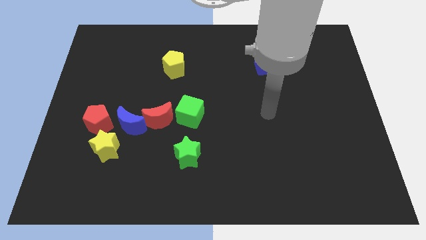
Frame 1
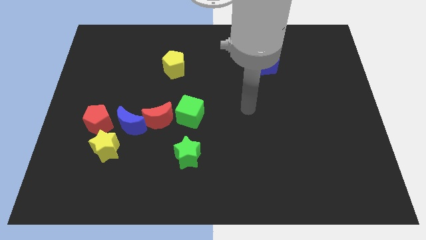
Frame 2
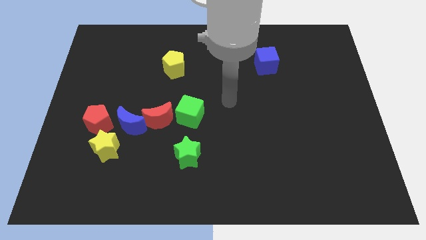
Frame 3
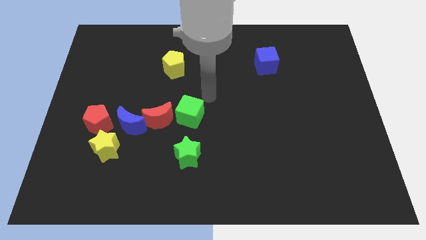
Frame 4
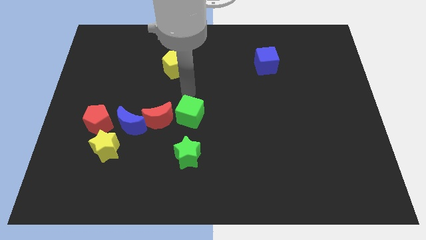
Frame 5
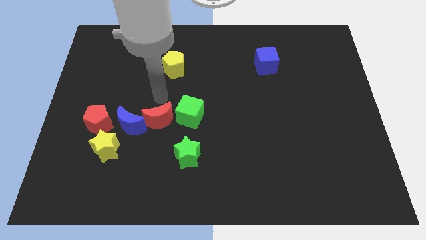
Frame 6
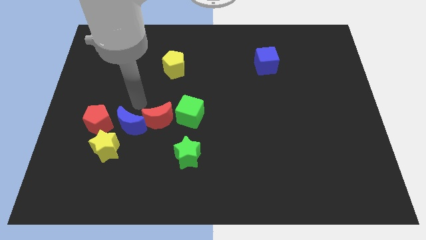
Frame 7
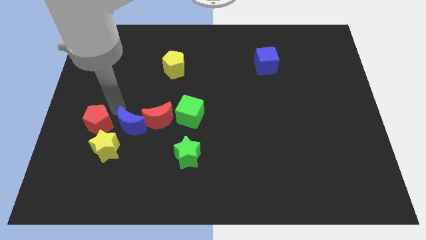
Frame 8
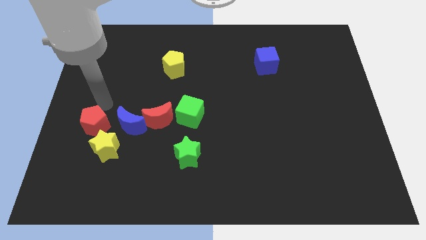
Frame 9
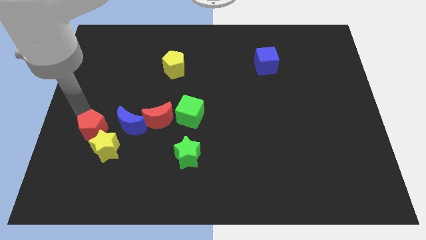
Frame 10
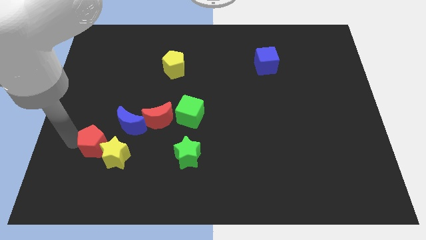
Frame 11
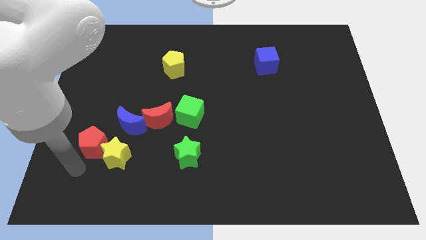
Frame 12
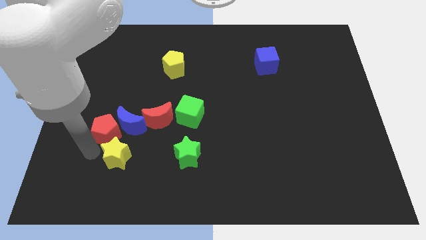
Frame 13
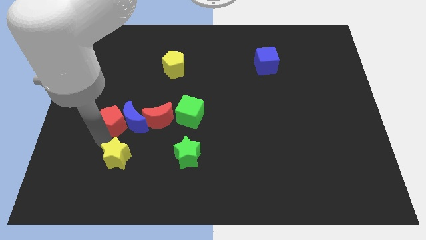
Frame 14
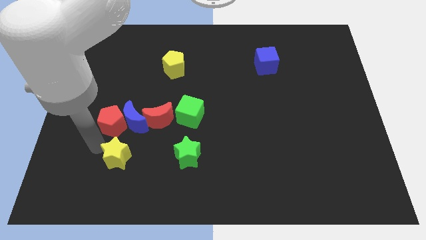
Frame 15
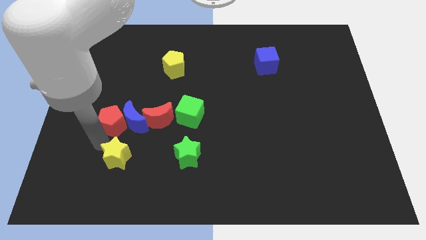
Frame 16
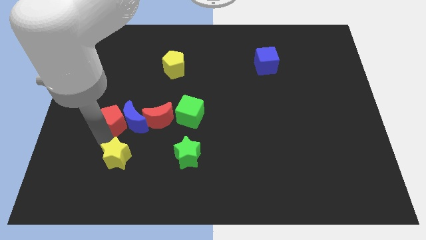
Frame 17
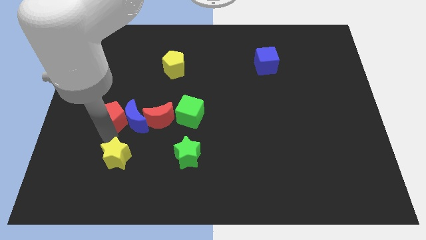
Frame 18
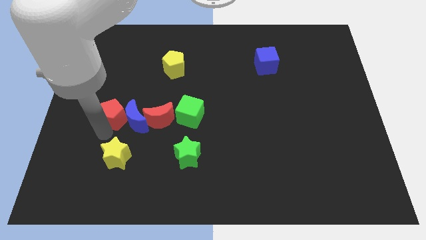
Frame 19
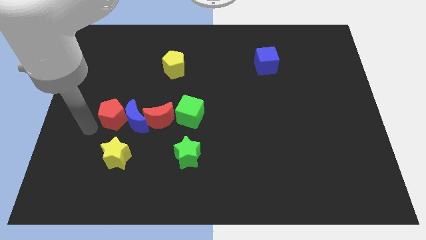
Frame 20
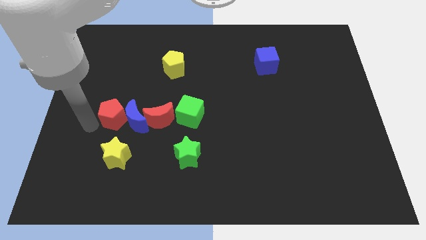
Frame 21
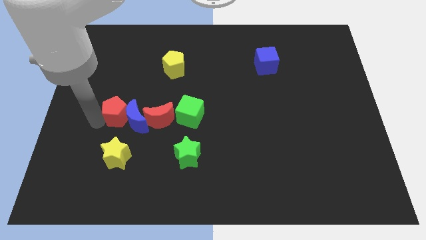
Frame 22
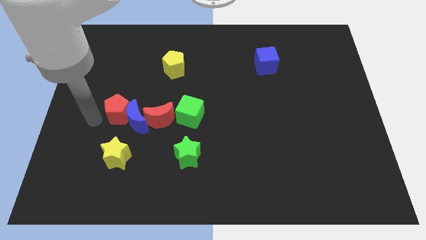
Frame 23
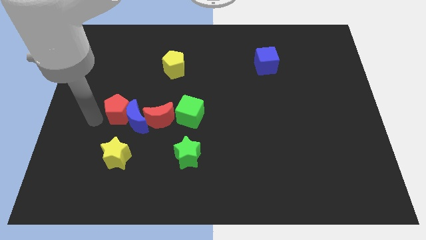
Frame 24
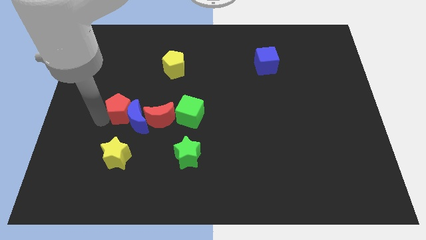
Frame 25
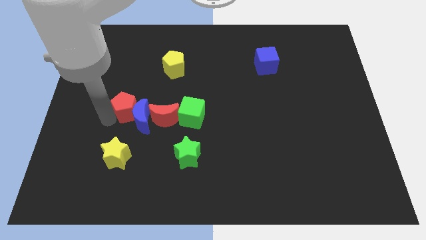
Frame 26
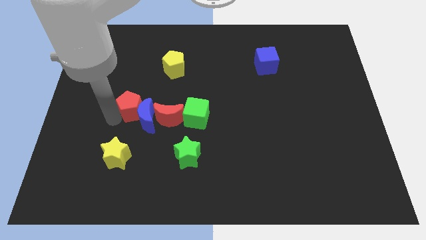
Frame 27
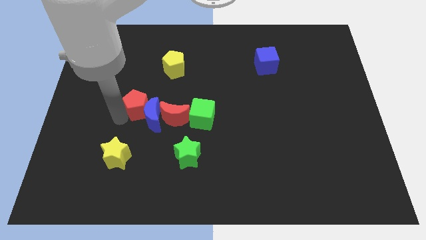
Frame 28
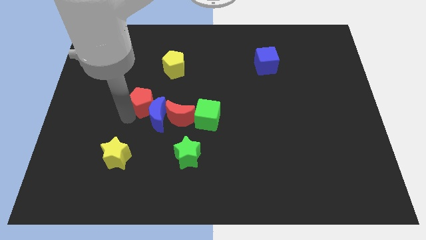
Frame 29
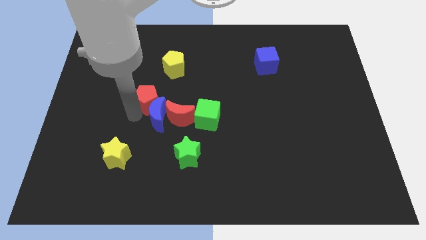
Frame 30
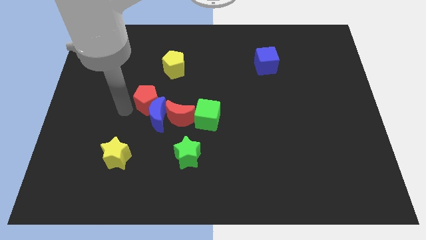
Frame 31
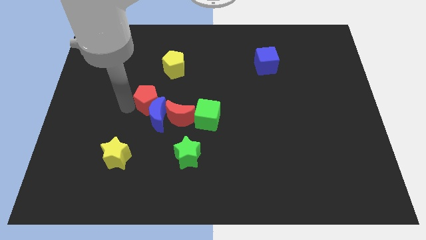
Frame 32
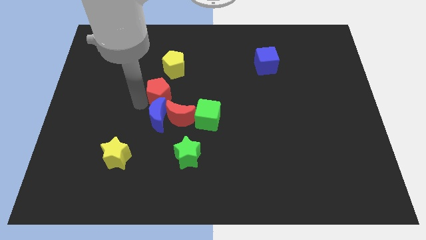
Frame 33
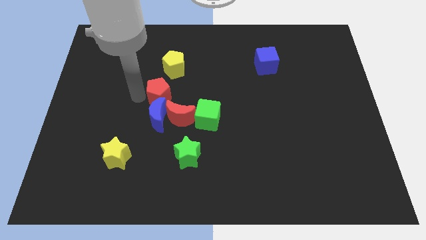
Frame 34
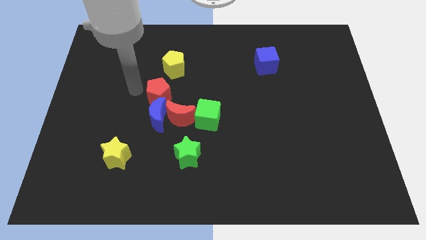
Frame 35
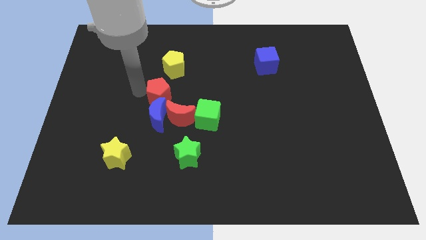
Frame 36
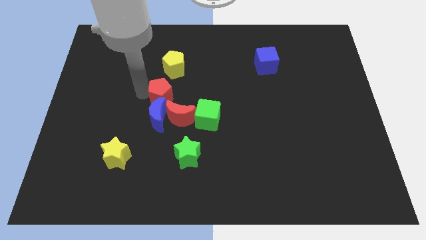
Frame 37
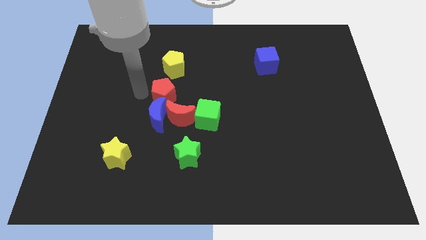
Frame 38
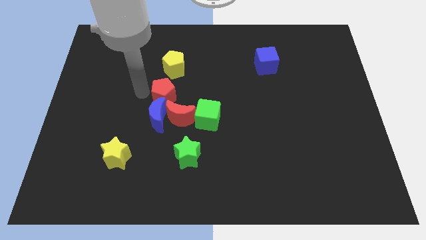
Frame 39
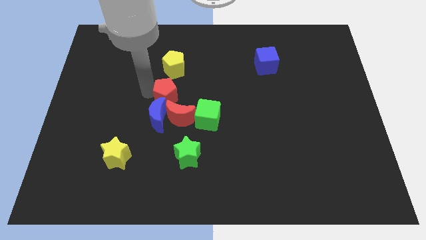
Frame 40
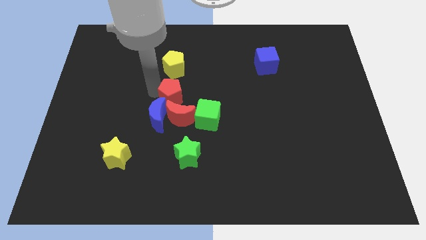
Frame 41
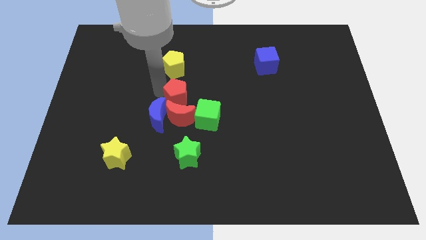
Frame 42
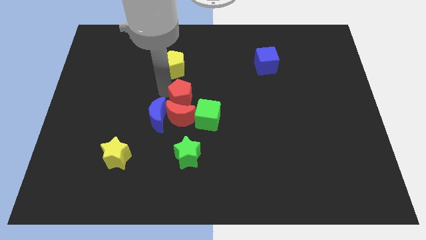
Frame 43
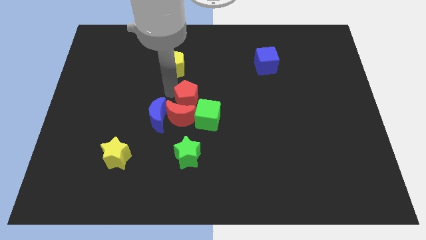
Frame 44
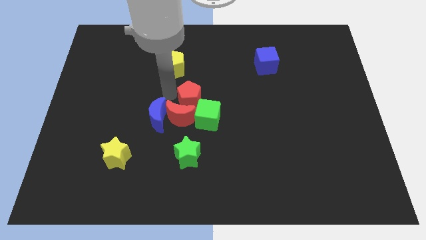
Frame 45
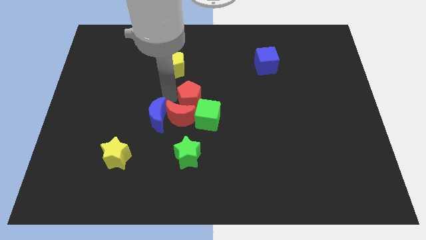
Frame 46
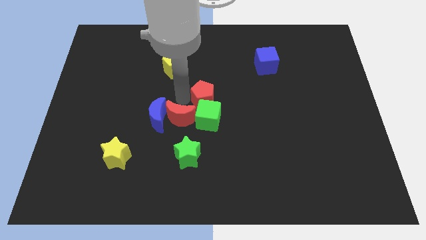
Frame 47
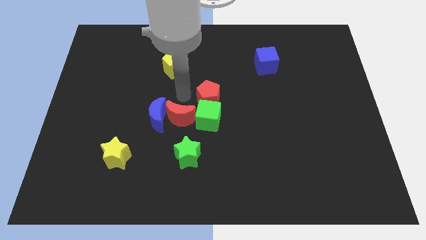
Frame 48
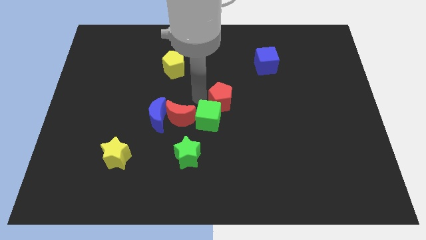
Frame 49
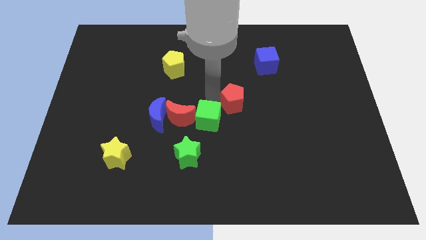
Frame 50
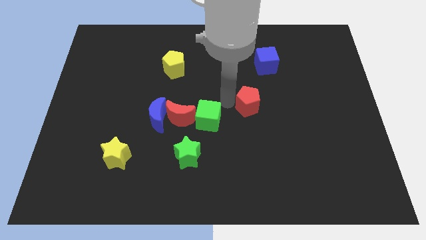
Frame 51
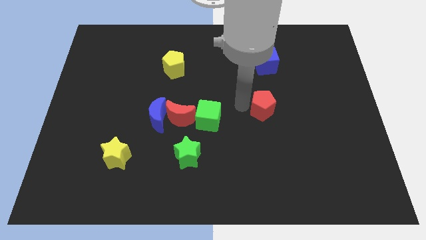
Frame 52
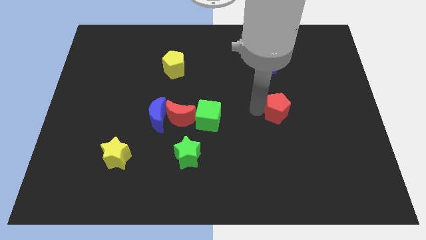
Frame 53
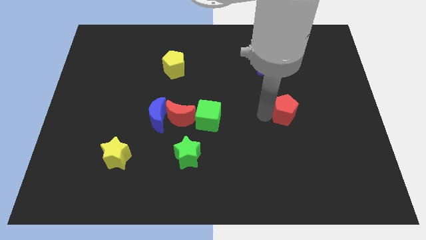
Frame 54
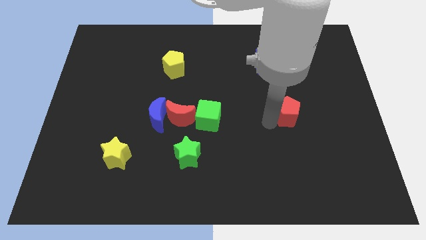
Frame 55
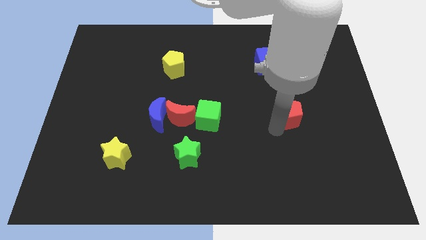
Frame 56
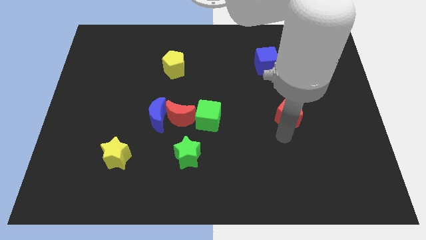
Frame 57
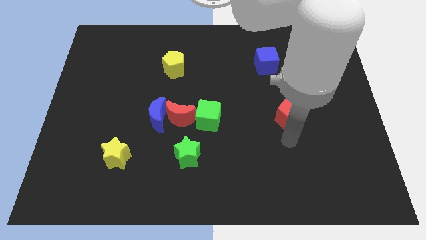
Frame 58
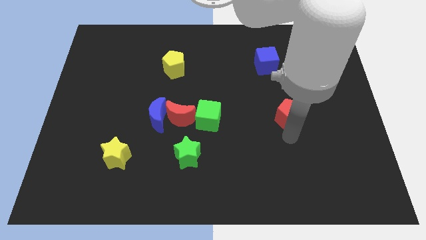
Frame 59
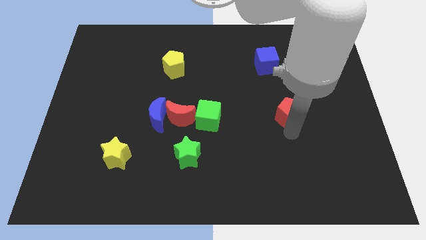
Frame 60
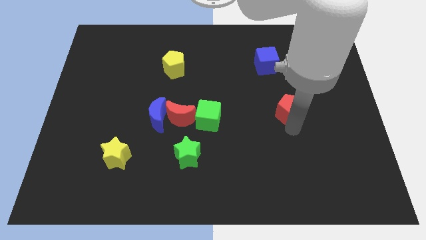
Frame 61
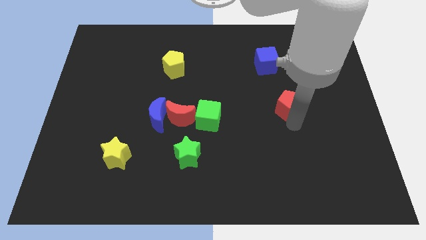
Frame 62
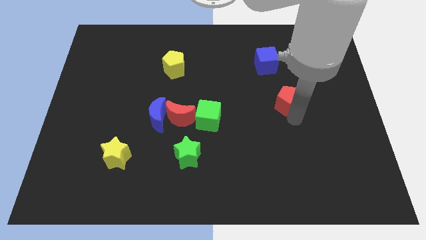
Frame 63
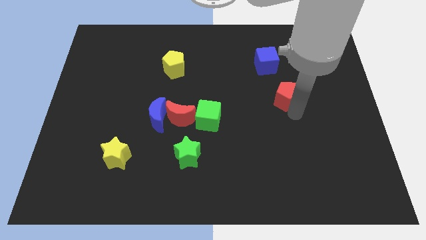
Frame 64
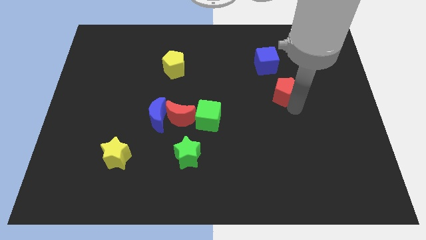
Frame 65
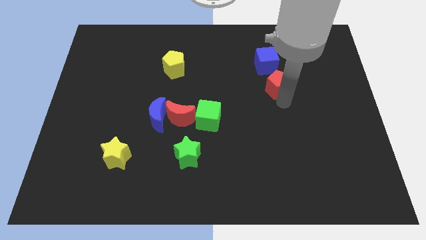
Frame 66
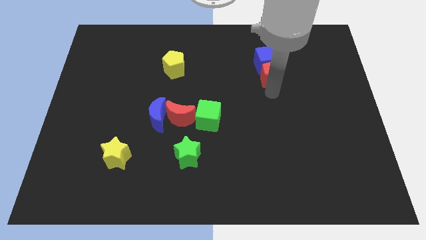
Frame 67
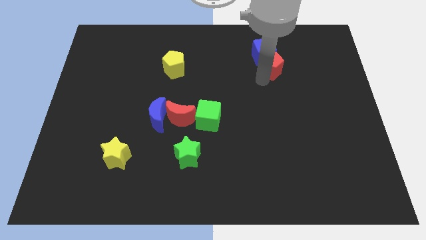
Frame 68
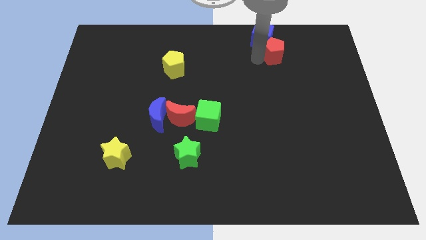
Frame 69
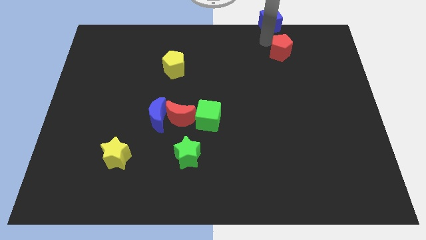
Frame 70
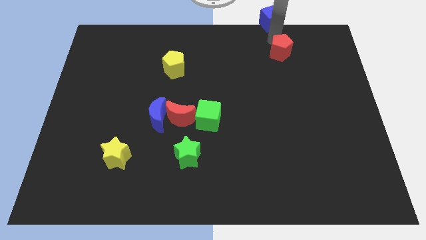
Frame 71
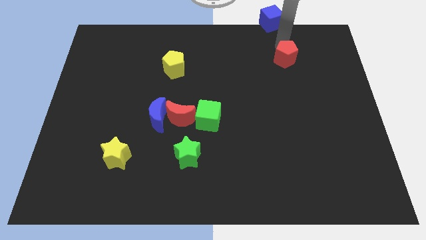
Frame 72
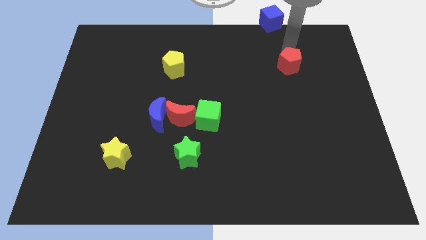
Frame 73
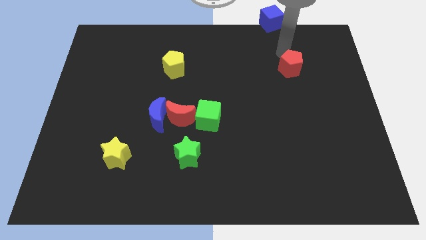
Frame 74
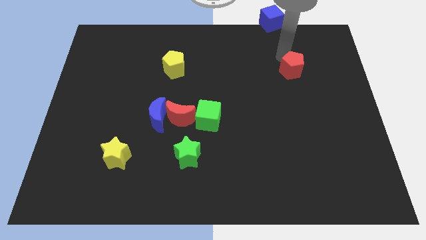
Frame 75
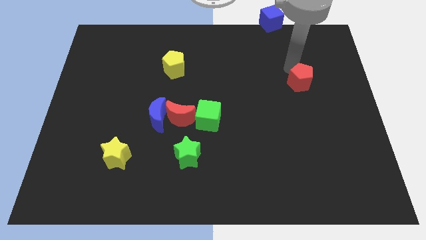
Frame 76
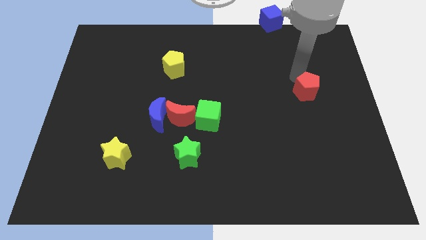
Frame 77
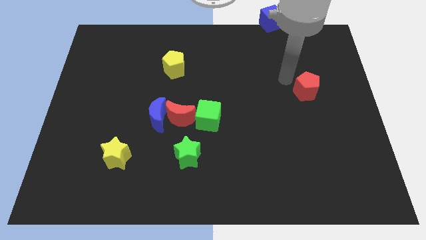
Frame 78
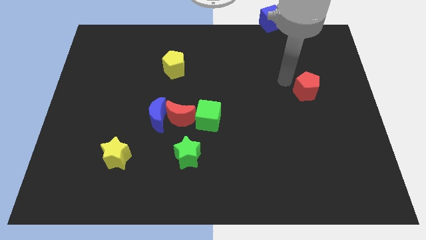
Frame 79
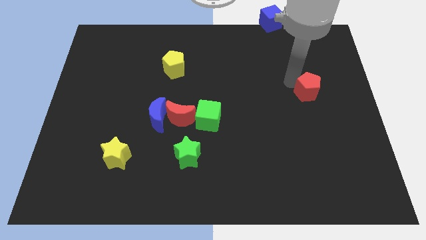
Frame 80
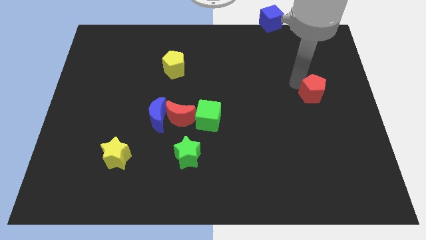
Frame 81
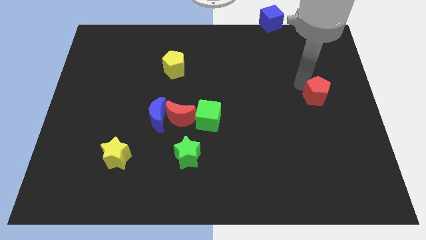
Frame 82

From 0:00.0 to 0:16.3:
put the red pentagon to the center right

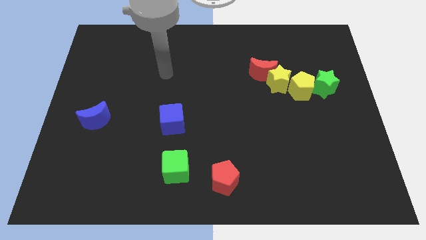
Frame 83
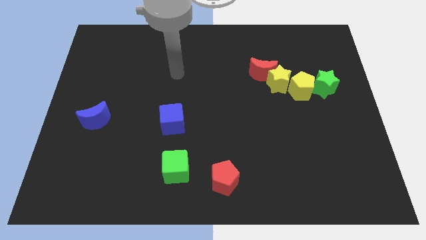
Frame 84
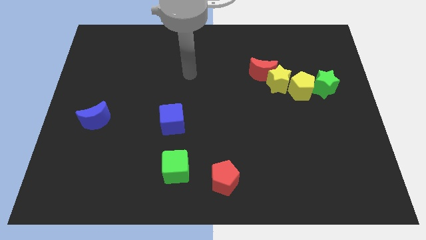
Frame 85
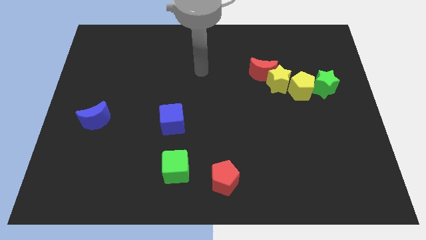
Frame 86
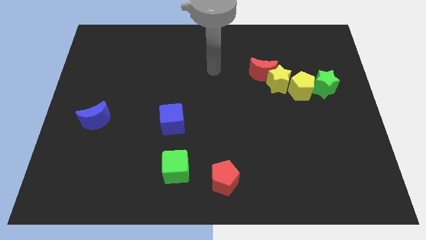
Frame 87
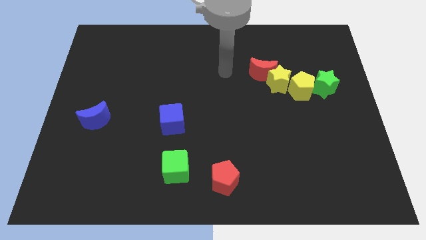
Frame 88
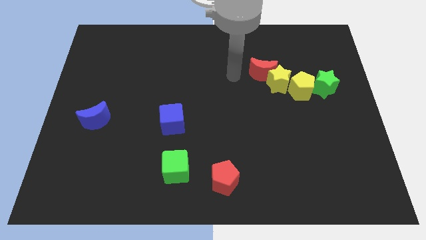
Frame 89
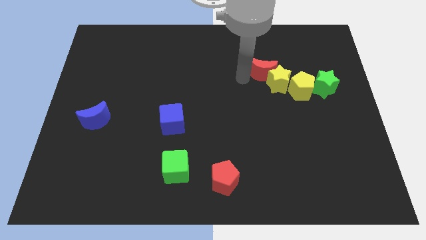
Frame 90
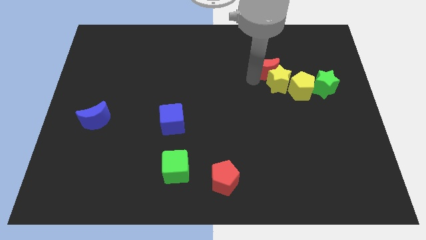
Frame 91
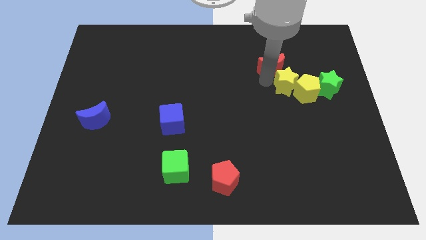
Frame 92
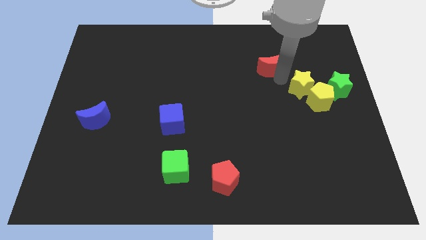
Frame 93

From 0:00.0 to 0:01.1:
push the yellow pentagon to the right side of the board
